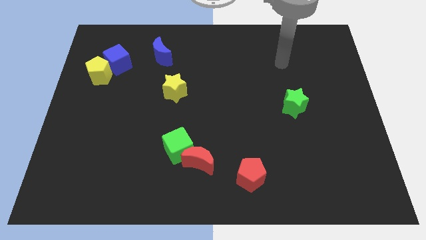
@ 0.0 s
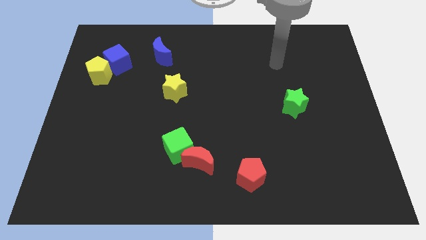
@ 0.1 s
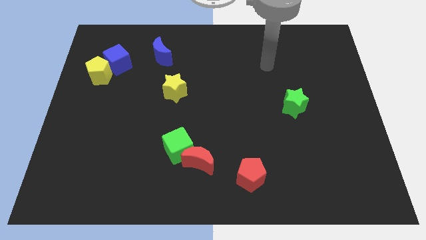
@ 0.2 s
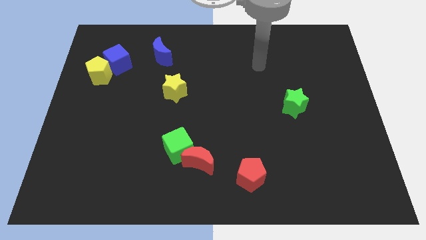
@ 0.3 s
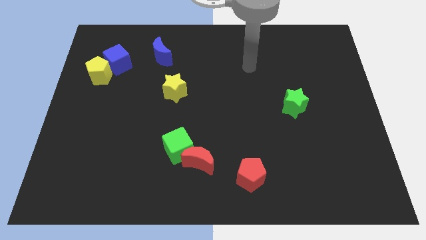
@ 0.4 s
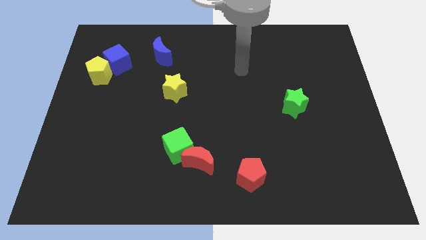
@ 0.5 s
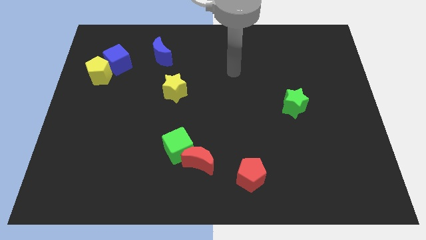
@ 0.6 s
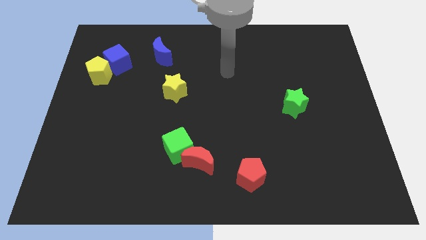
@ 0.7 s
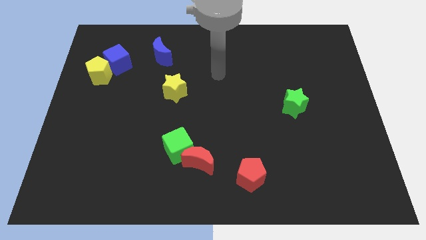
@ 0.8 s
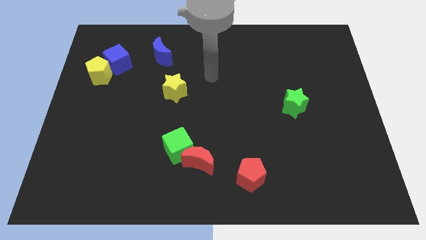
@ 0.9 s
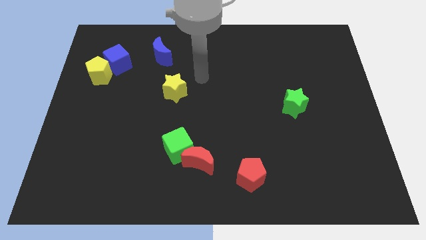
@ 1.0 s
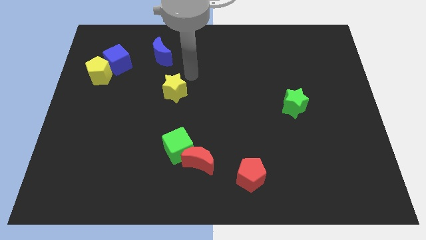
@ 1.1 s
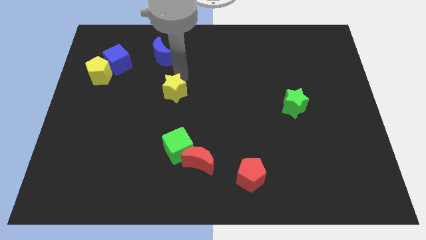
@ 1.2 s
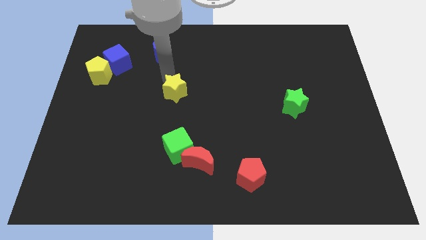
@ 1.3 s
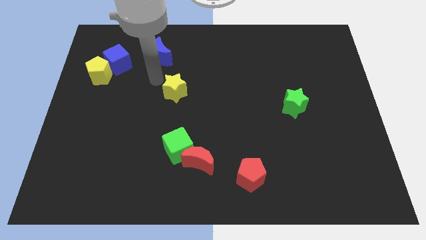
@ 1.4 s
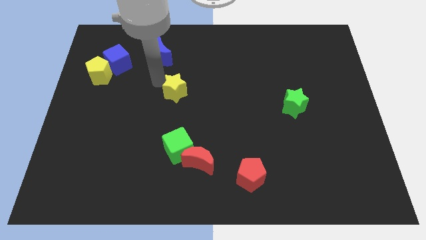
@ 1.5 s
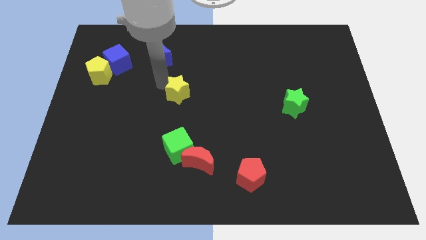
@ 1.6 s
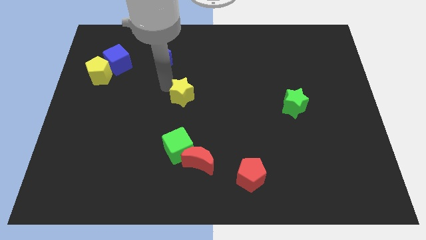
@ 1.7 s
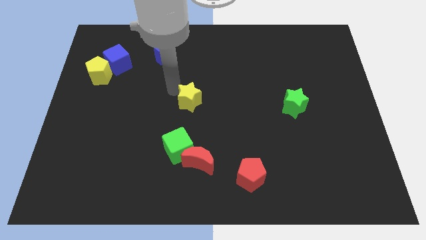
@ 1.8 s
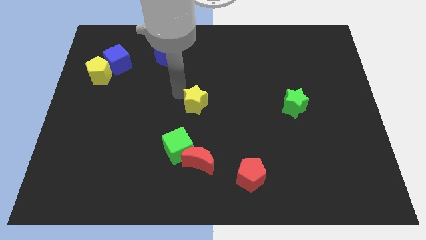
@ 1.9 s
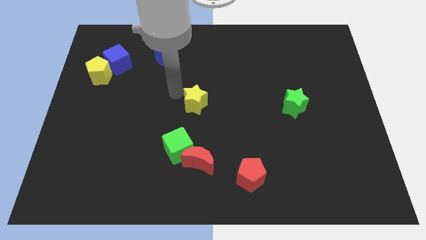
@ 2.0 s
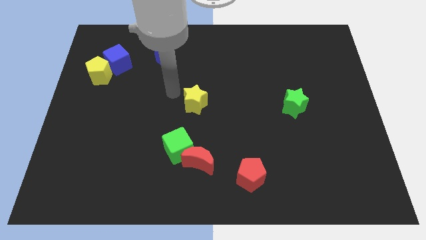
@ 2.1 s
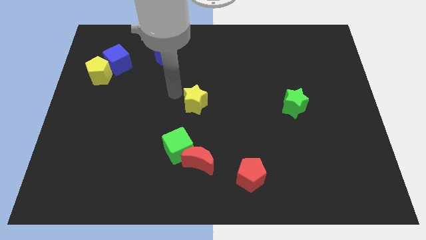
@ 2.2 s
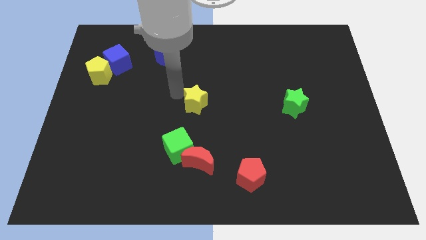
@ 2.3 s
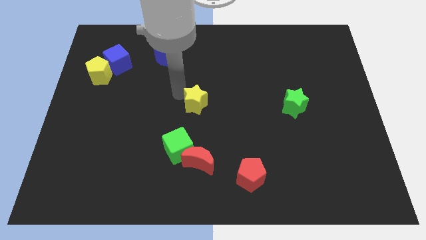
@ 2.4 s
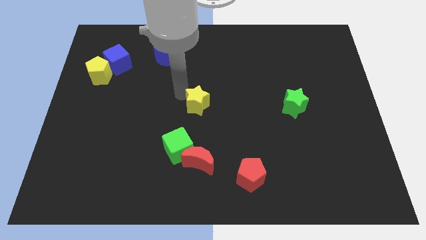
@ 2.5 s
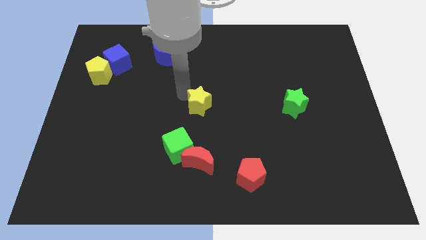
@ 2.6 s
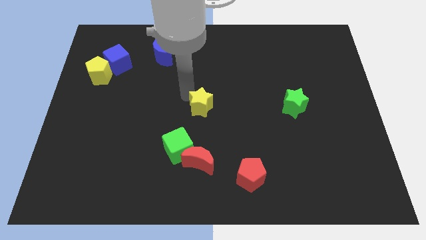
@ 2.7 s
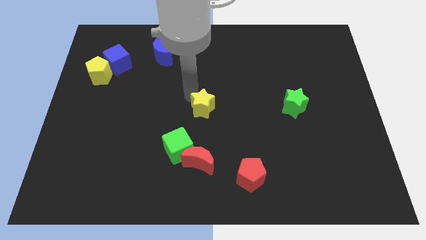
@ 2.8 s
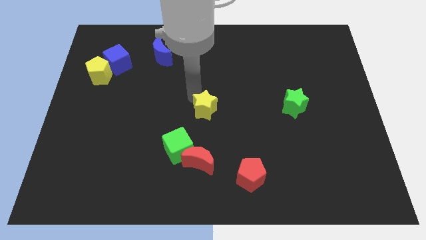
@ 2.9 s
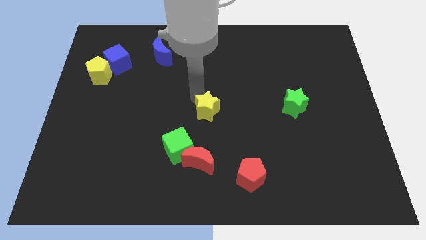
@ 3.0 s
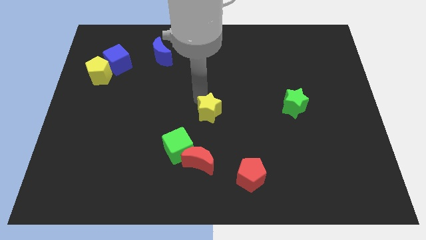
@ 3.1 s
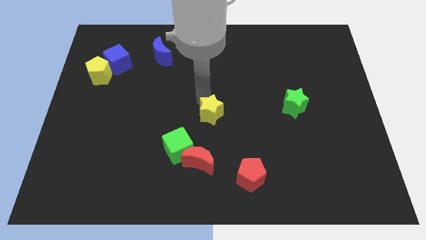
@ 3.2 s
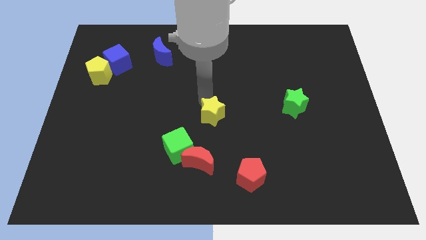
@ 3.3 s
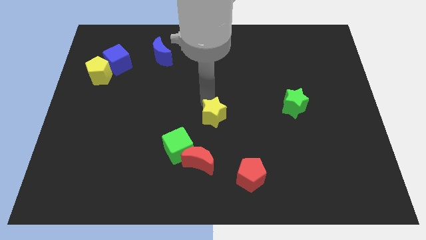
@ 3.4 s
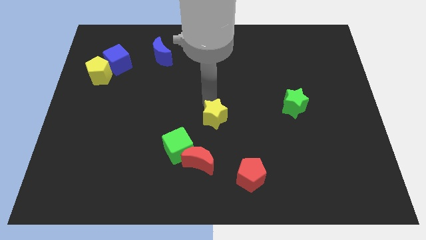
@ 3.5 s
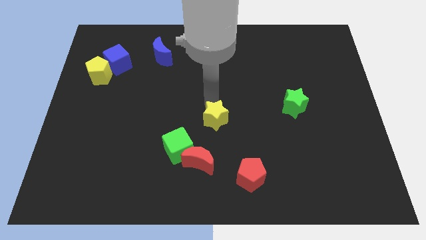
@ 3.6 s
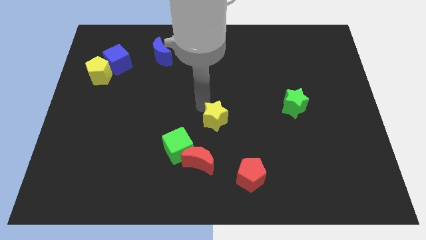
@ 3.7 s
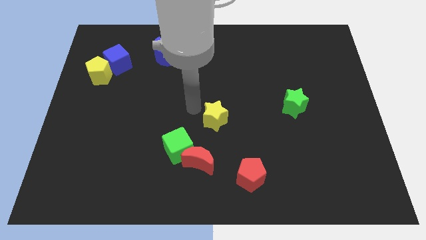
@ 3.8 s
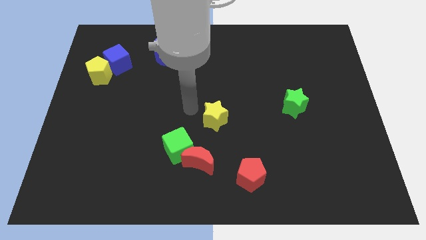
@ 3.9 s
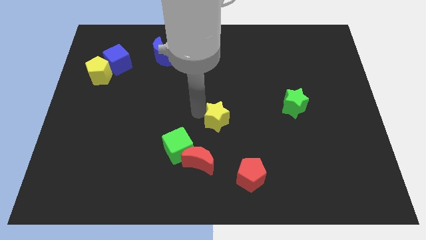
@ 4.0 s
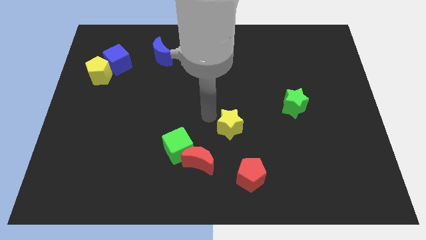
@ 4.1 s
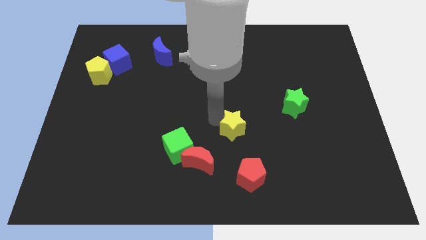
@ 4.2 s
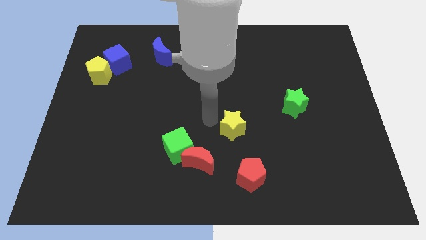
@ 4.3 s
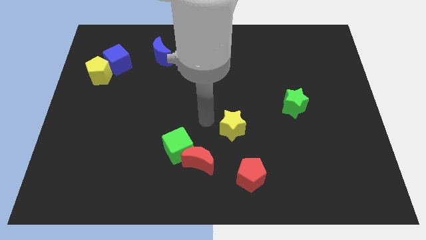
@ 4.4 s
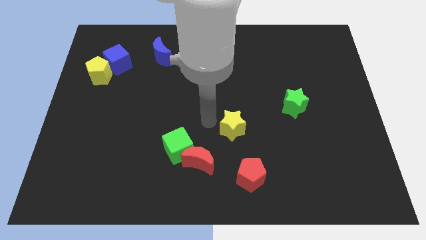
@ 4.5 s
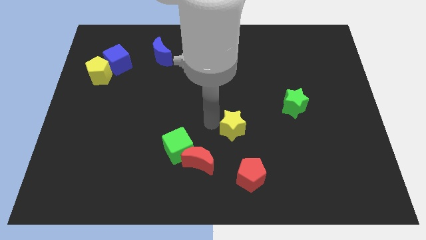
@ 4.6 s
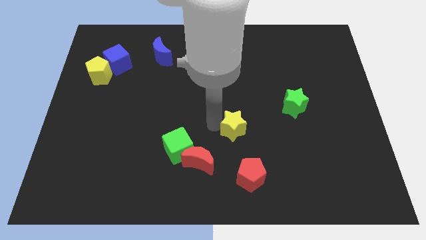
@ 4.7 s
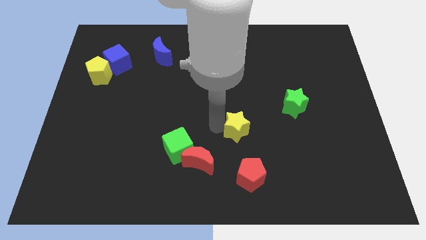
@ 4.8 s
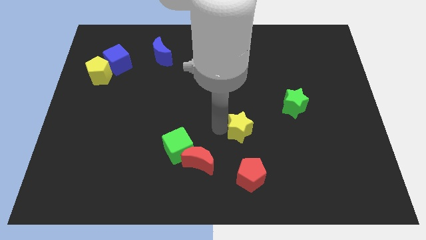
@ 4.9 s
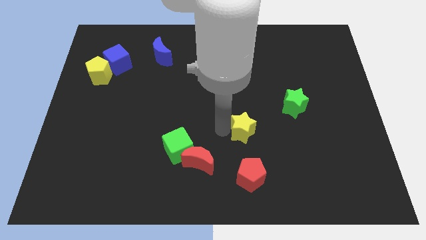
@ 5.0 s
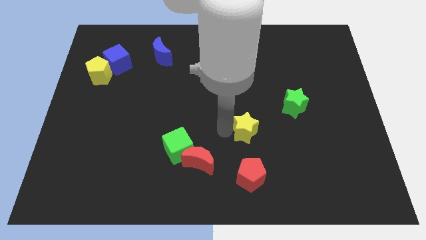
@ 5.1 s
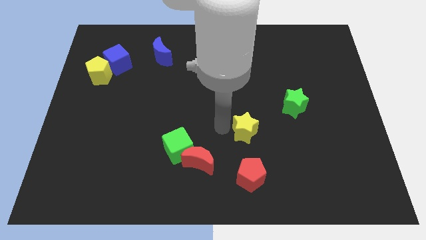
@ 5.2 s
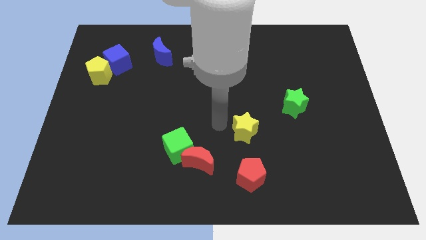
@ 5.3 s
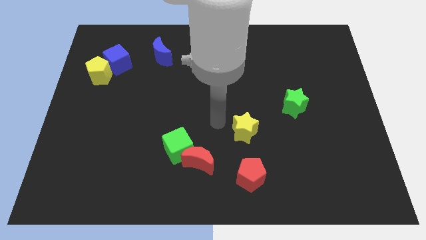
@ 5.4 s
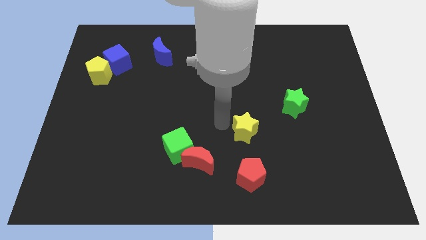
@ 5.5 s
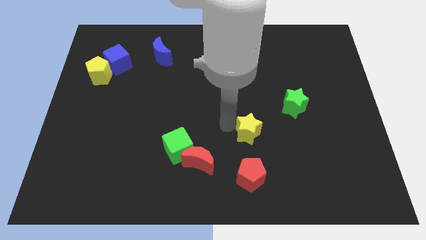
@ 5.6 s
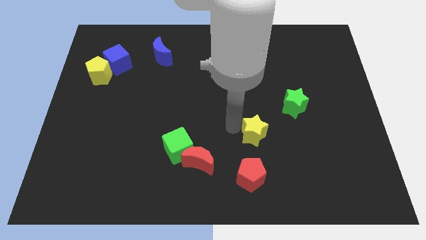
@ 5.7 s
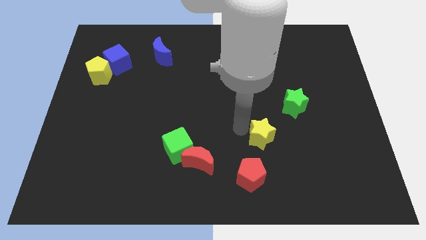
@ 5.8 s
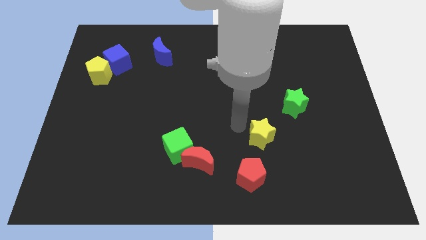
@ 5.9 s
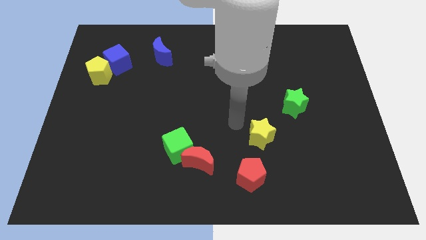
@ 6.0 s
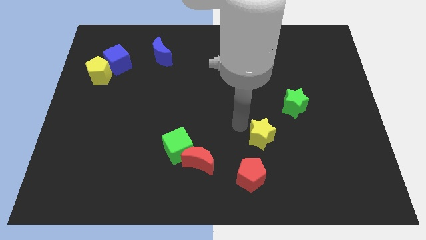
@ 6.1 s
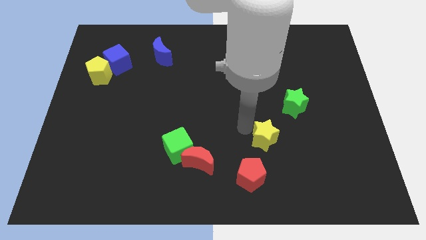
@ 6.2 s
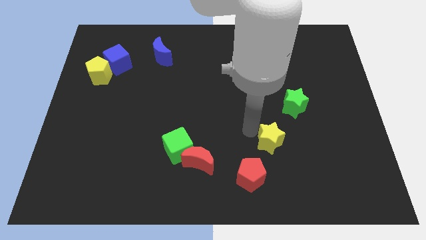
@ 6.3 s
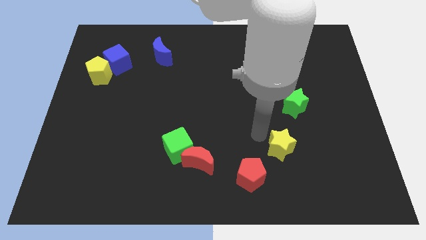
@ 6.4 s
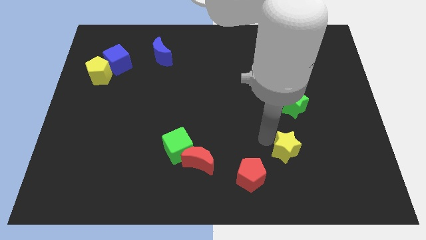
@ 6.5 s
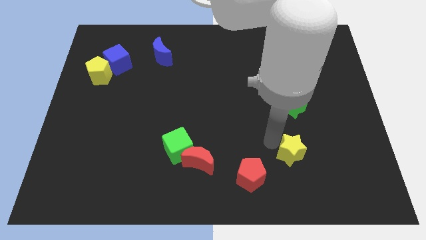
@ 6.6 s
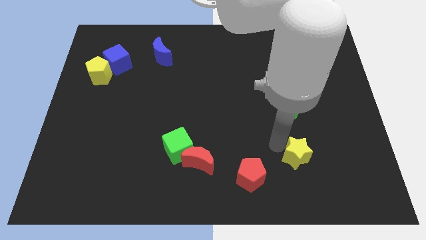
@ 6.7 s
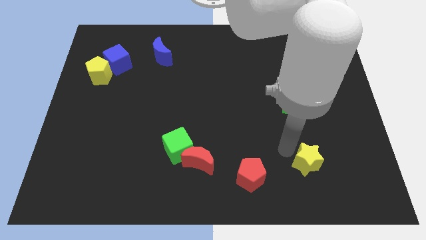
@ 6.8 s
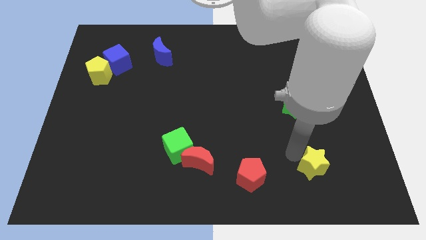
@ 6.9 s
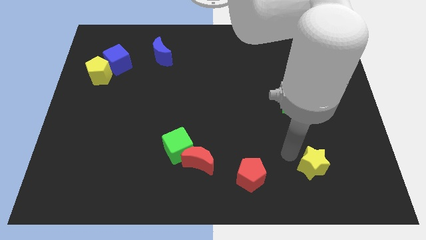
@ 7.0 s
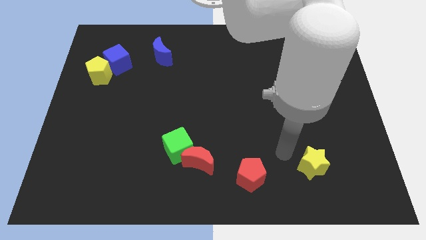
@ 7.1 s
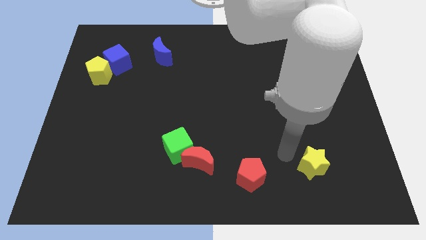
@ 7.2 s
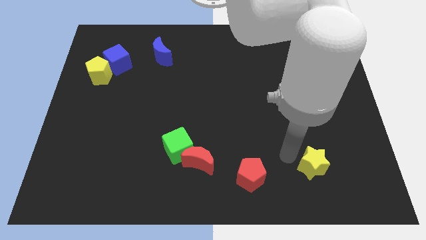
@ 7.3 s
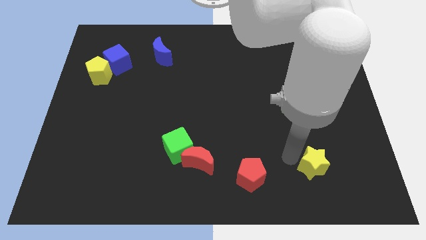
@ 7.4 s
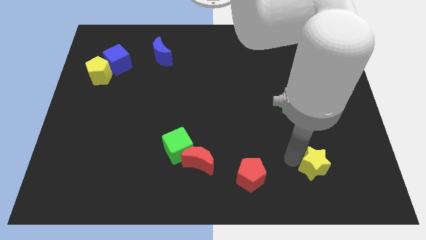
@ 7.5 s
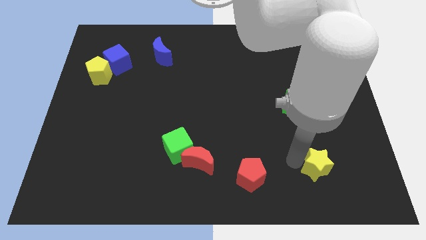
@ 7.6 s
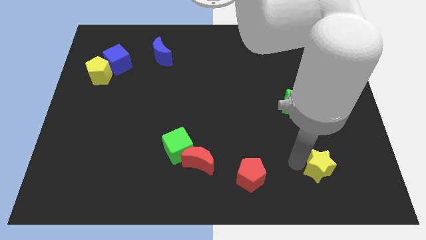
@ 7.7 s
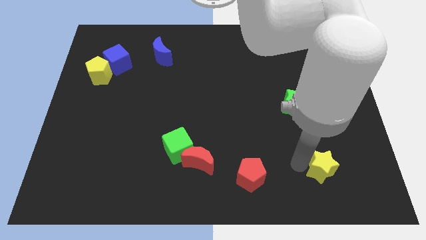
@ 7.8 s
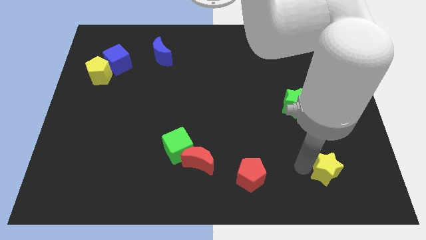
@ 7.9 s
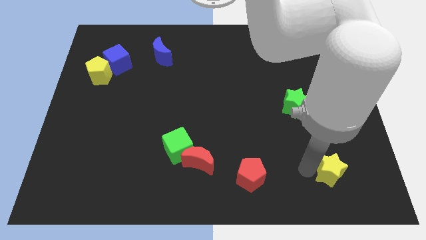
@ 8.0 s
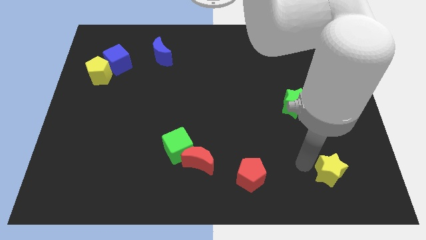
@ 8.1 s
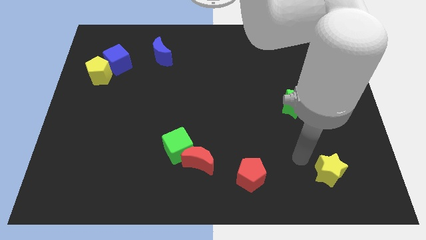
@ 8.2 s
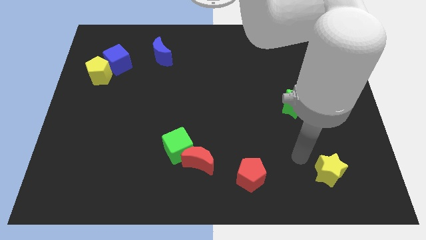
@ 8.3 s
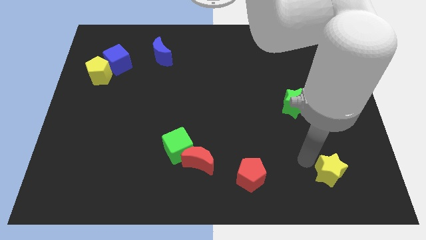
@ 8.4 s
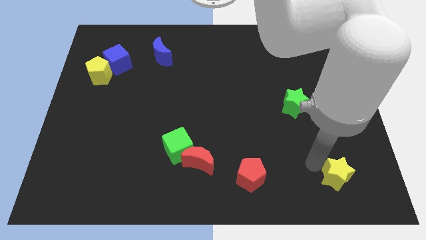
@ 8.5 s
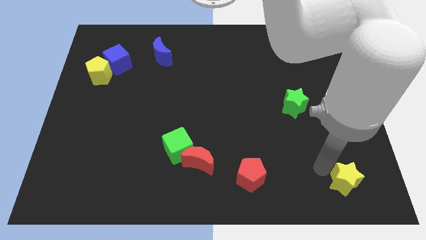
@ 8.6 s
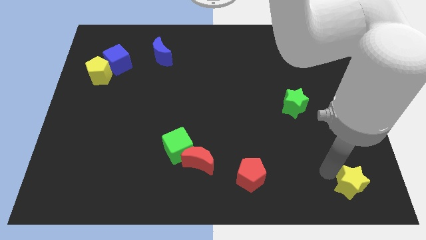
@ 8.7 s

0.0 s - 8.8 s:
push the yellow star to the bottom right of the board
